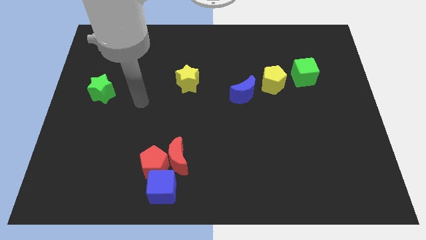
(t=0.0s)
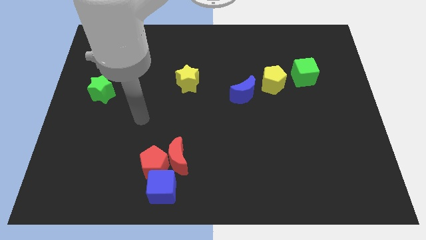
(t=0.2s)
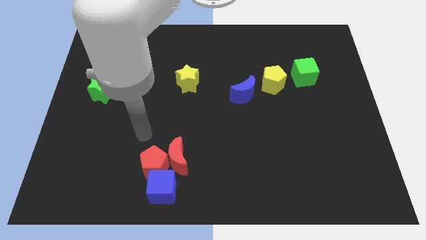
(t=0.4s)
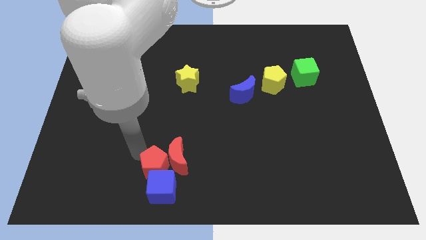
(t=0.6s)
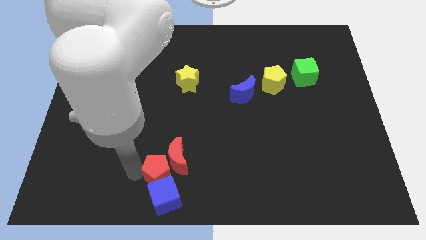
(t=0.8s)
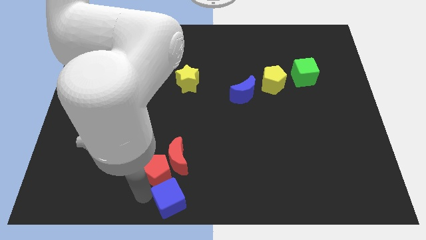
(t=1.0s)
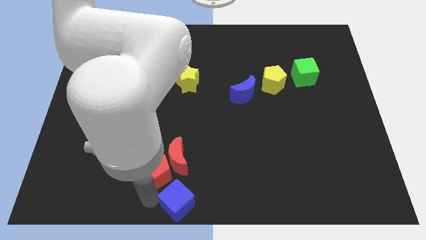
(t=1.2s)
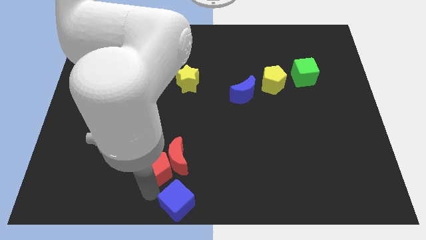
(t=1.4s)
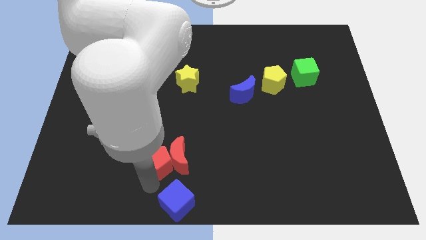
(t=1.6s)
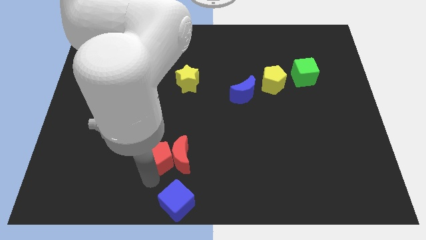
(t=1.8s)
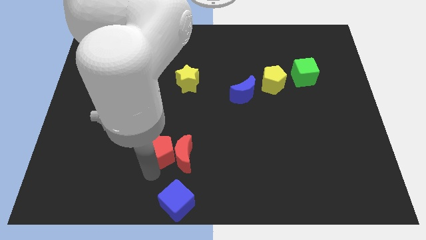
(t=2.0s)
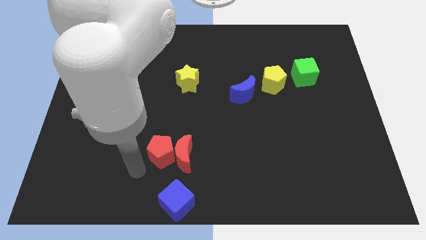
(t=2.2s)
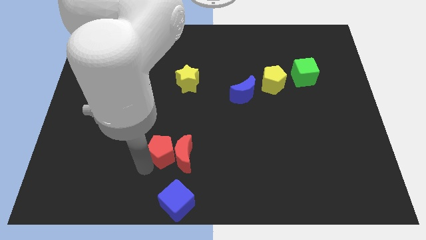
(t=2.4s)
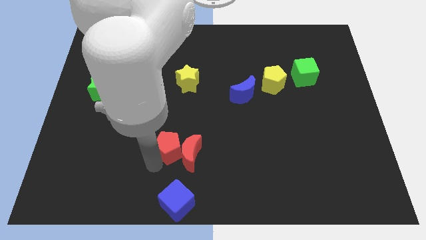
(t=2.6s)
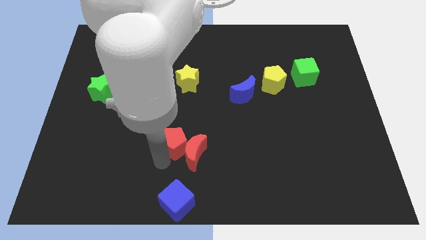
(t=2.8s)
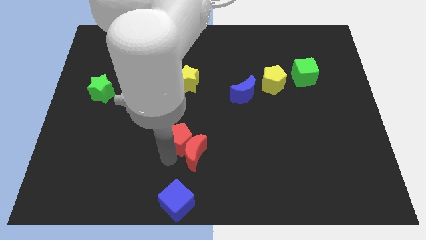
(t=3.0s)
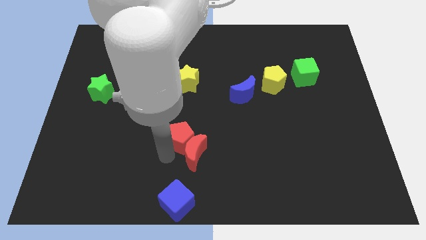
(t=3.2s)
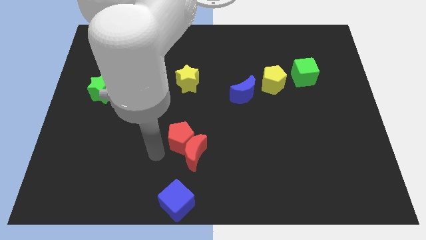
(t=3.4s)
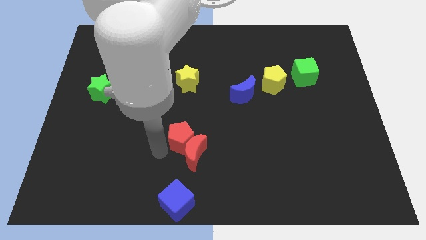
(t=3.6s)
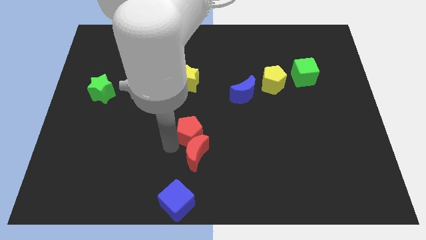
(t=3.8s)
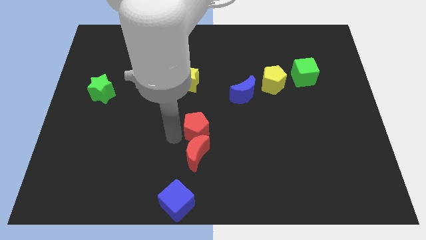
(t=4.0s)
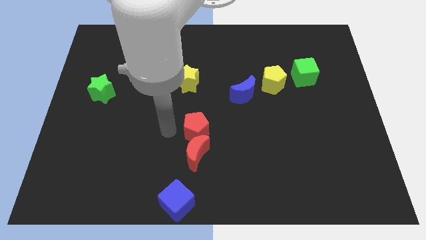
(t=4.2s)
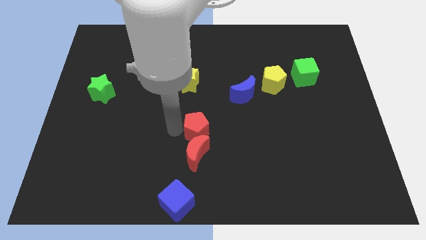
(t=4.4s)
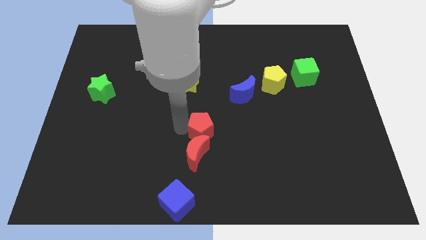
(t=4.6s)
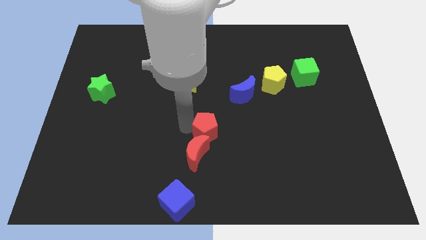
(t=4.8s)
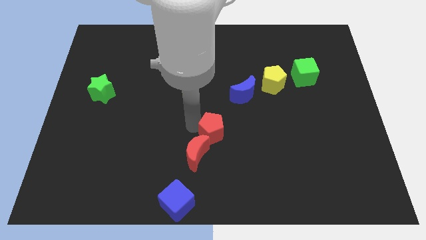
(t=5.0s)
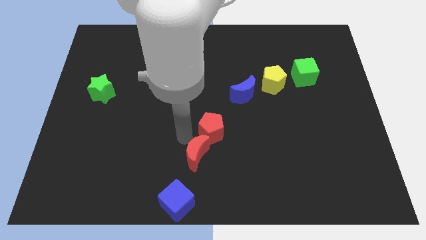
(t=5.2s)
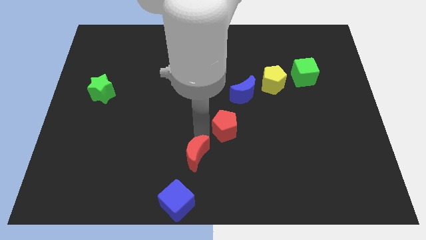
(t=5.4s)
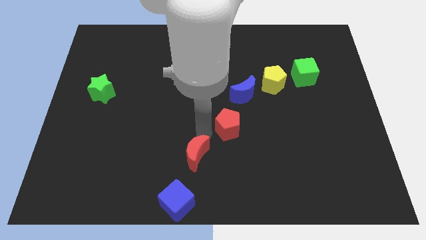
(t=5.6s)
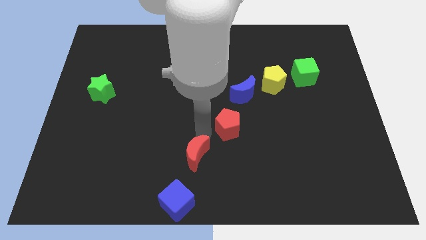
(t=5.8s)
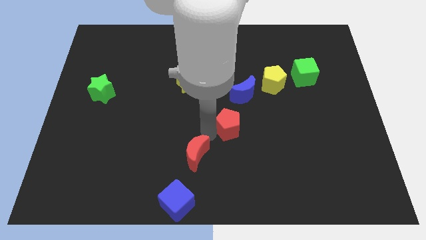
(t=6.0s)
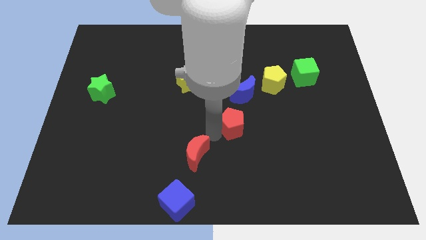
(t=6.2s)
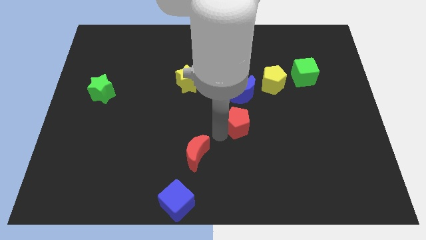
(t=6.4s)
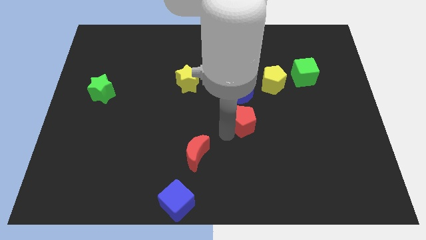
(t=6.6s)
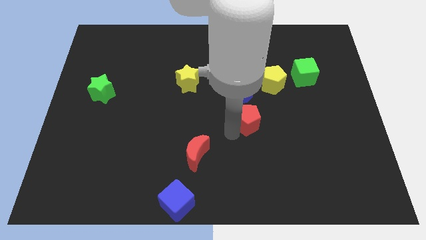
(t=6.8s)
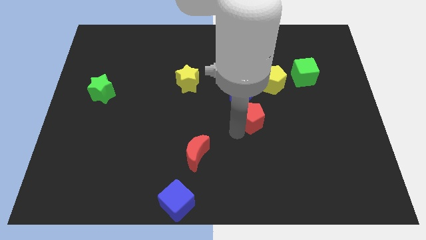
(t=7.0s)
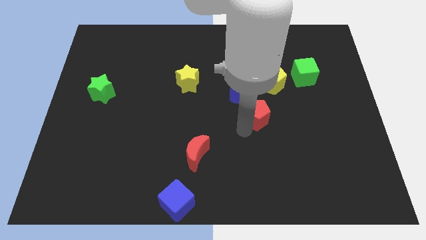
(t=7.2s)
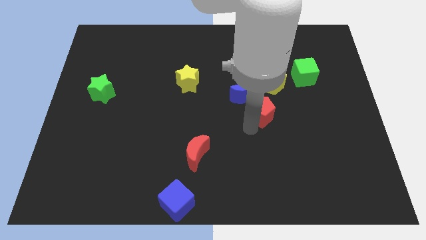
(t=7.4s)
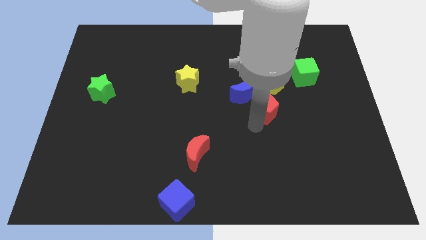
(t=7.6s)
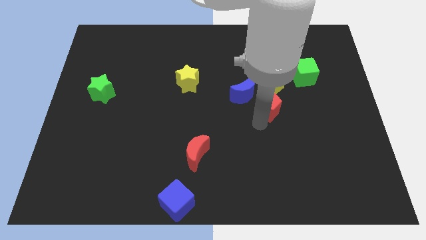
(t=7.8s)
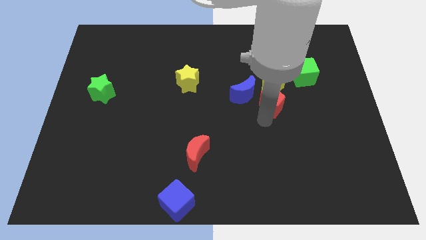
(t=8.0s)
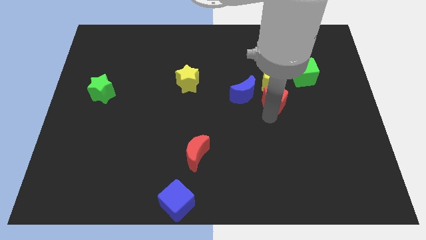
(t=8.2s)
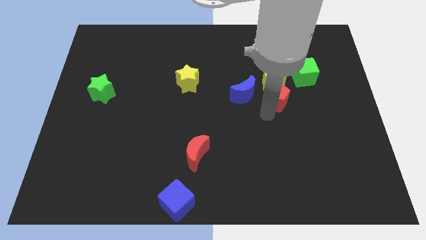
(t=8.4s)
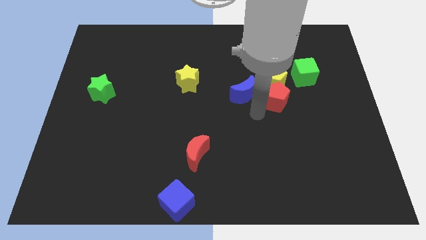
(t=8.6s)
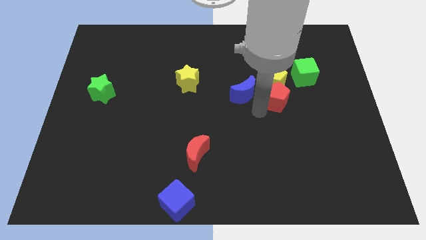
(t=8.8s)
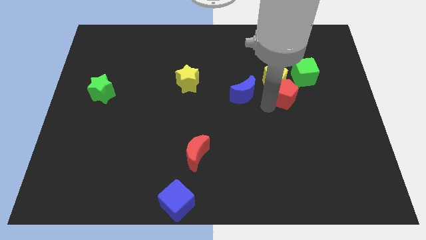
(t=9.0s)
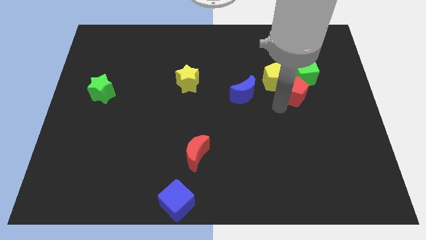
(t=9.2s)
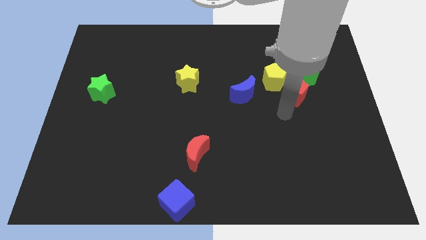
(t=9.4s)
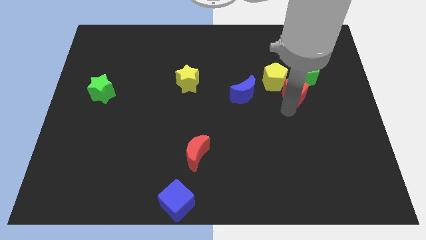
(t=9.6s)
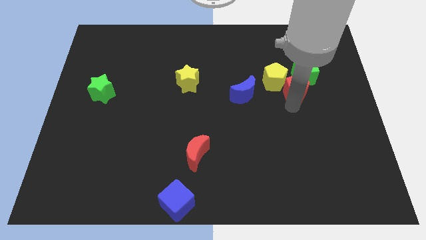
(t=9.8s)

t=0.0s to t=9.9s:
put the red pentagon to the green cube

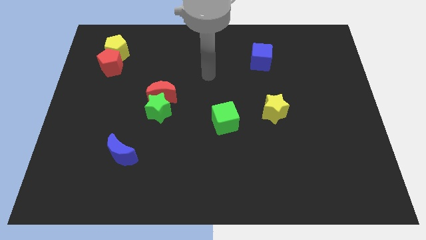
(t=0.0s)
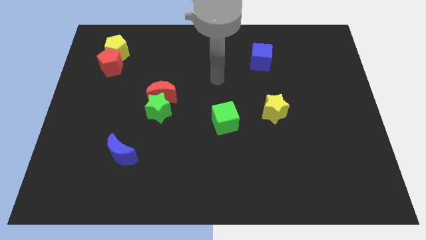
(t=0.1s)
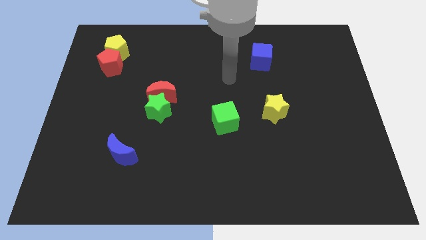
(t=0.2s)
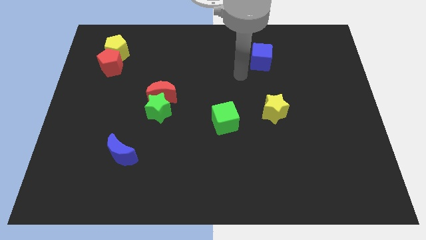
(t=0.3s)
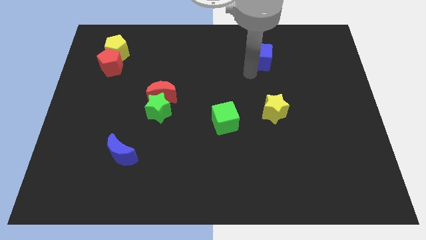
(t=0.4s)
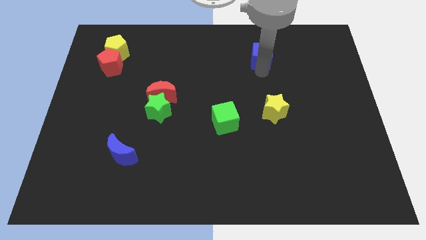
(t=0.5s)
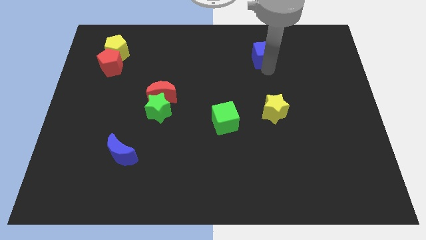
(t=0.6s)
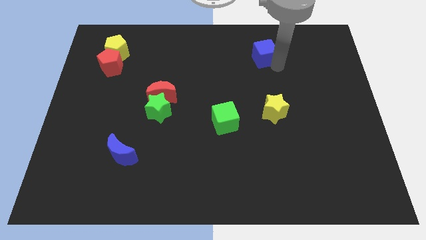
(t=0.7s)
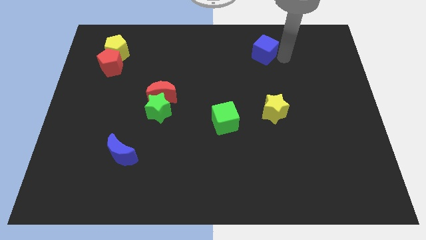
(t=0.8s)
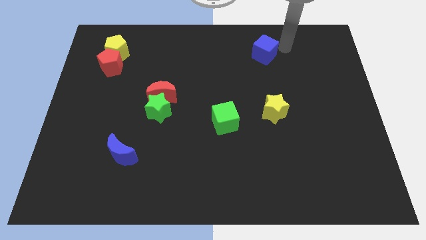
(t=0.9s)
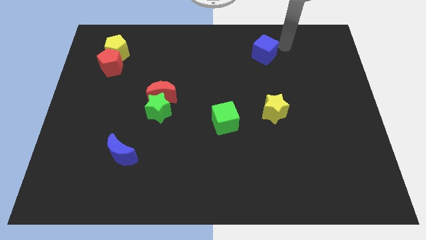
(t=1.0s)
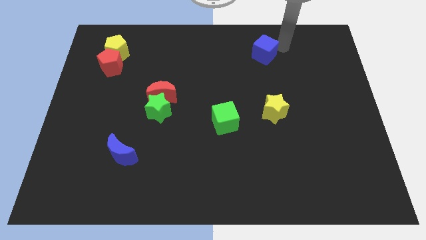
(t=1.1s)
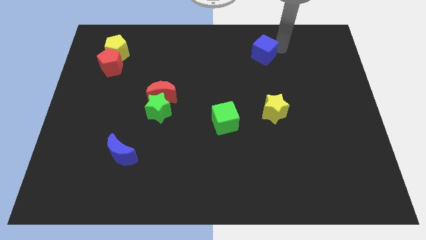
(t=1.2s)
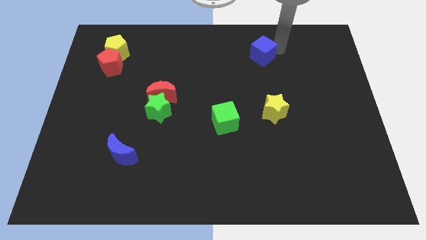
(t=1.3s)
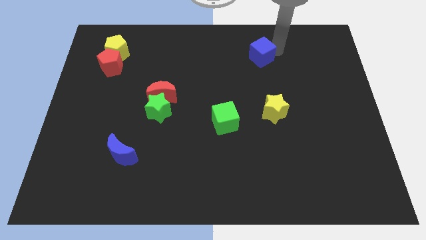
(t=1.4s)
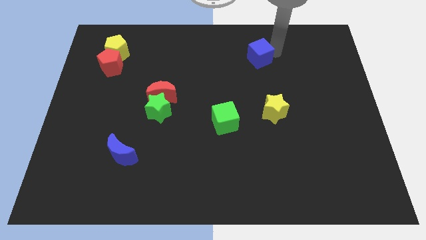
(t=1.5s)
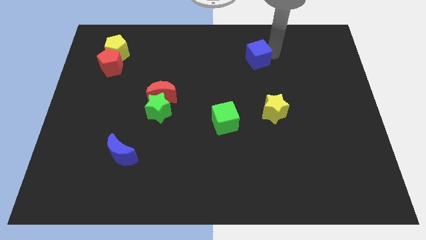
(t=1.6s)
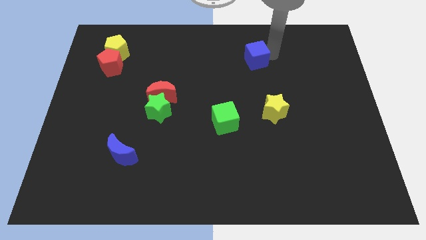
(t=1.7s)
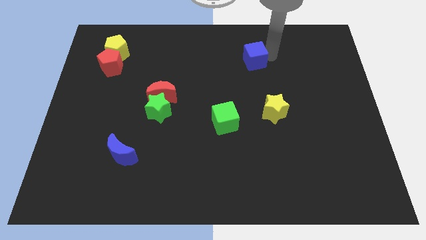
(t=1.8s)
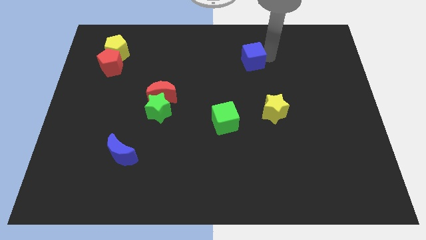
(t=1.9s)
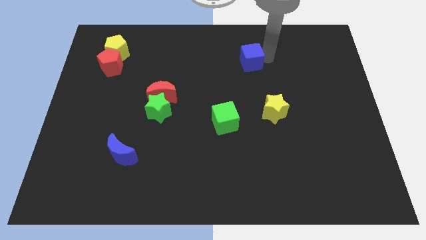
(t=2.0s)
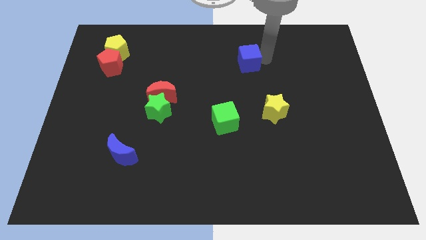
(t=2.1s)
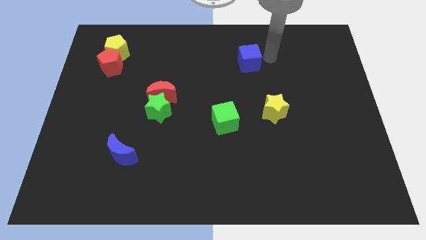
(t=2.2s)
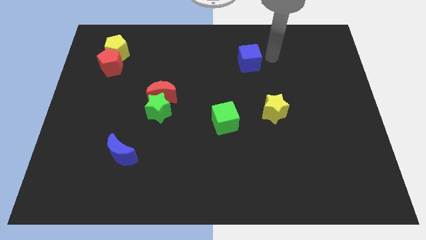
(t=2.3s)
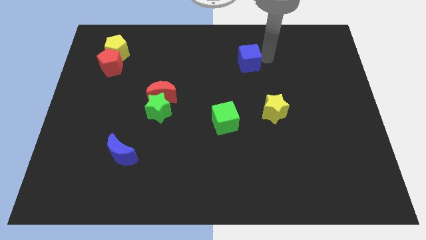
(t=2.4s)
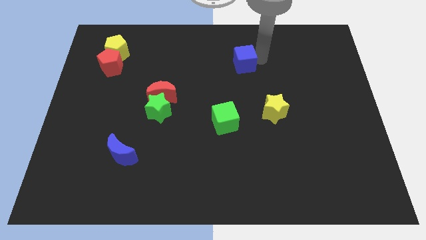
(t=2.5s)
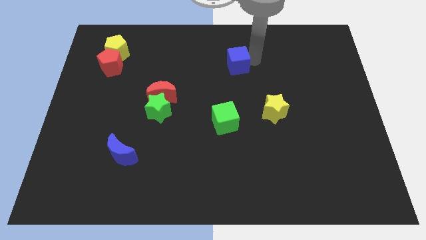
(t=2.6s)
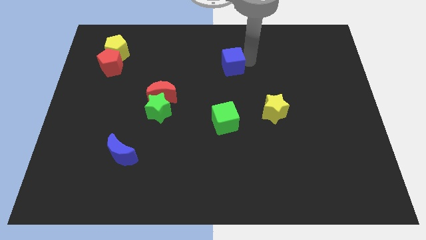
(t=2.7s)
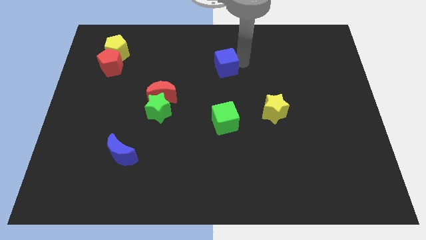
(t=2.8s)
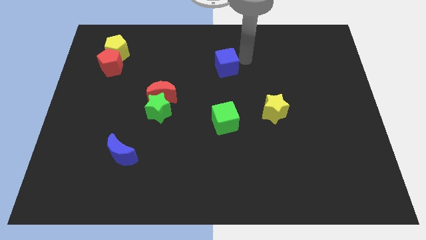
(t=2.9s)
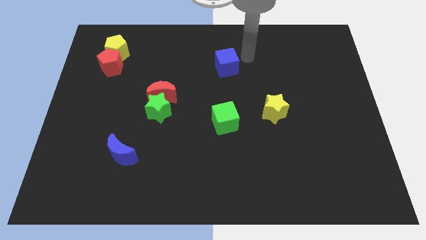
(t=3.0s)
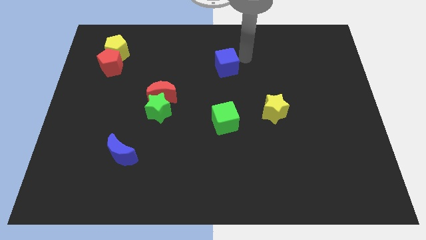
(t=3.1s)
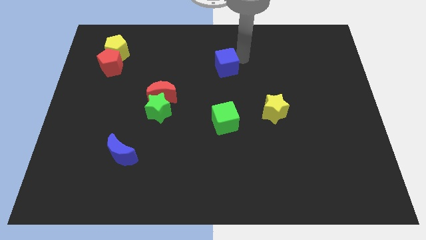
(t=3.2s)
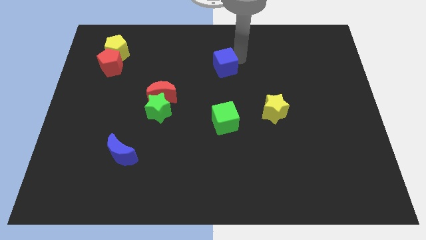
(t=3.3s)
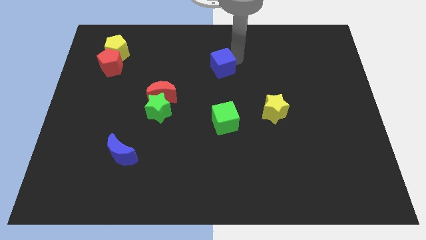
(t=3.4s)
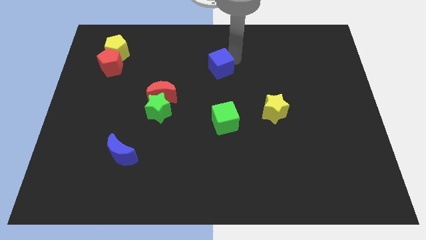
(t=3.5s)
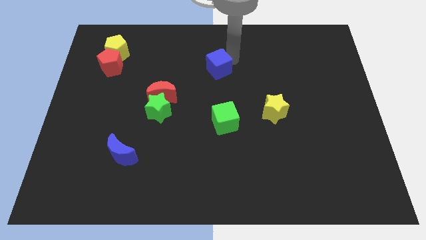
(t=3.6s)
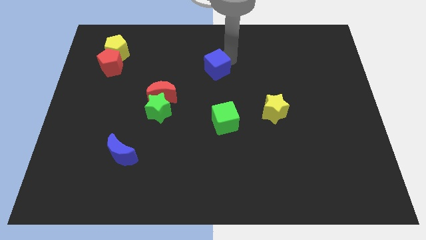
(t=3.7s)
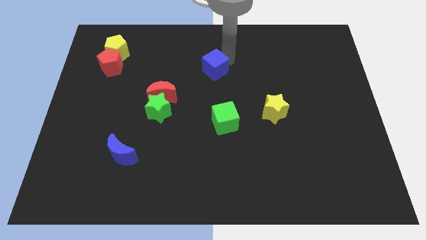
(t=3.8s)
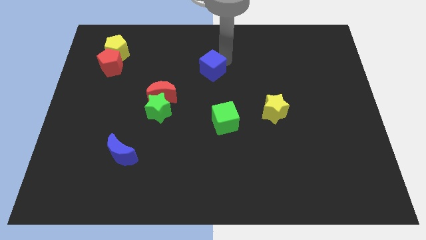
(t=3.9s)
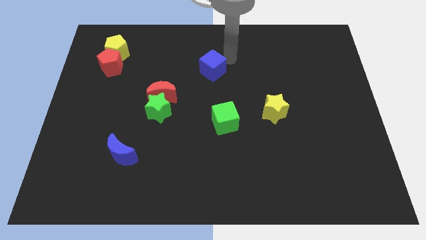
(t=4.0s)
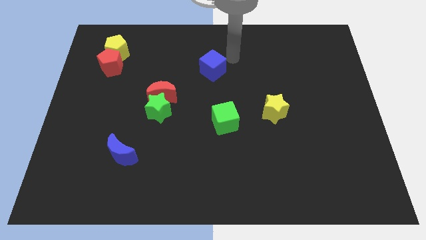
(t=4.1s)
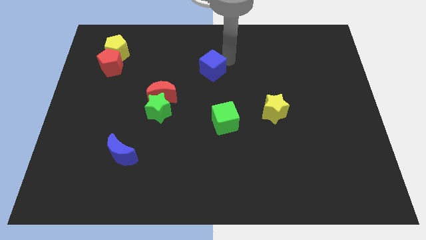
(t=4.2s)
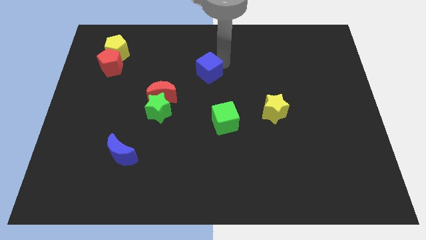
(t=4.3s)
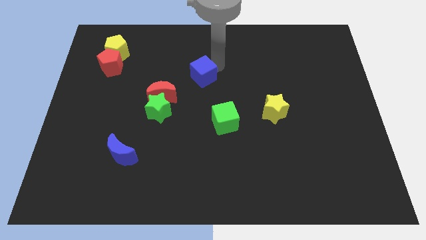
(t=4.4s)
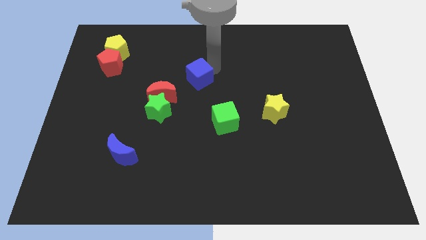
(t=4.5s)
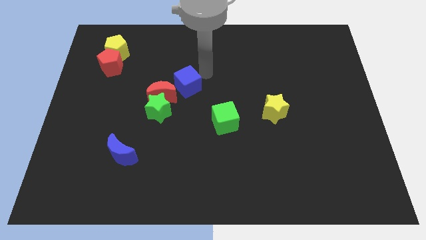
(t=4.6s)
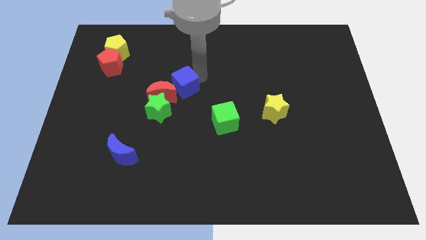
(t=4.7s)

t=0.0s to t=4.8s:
push the blue cube next to the red moon
